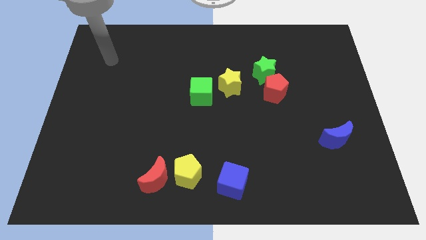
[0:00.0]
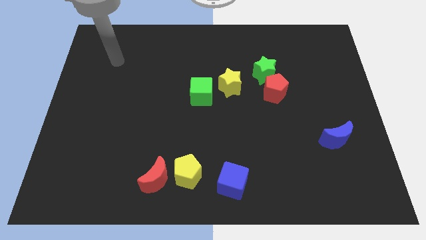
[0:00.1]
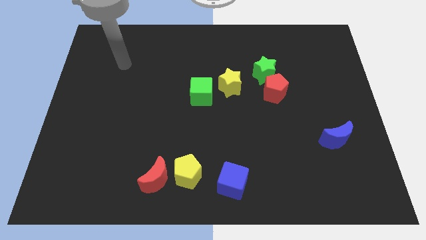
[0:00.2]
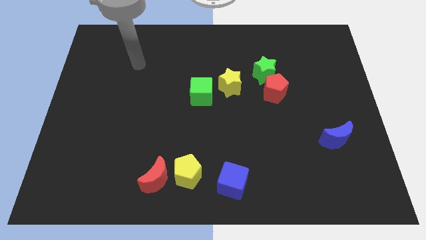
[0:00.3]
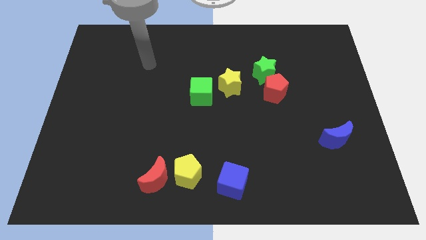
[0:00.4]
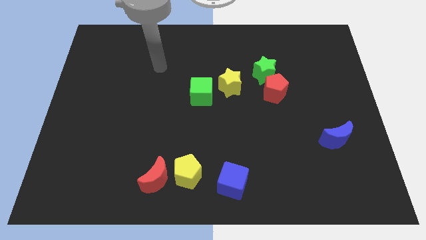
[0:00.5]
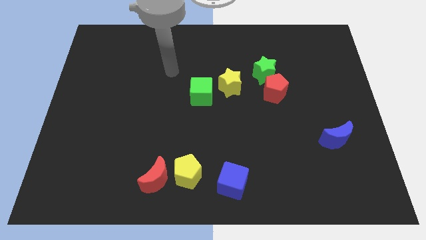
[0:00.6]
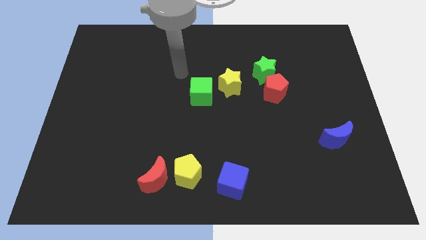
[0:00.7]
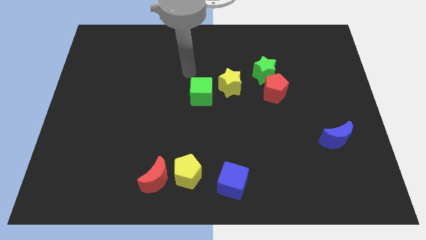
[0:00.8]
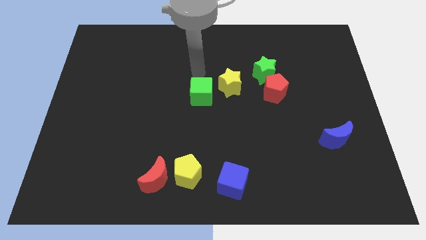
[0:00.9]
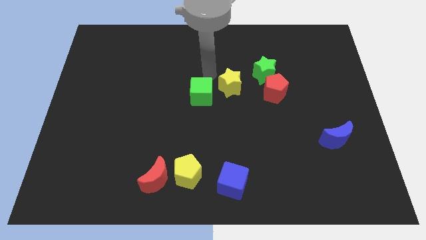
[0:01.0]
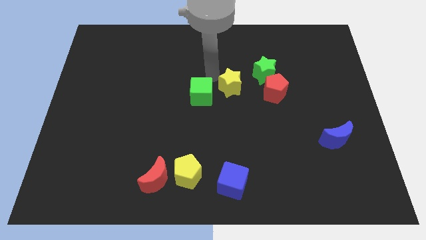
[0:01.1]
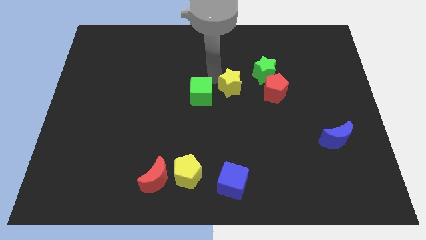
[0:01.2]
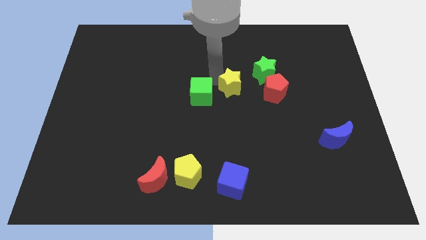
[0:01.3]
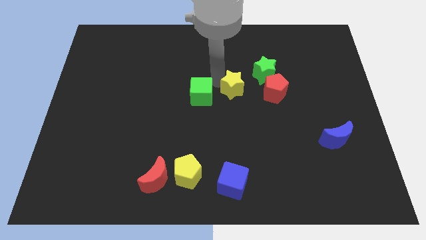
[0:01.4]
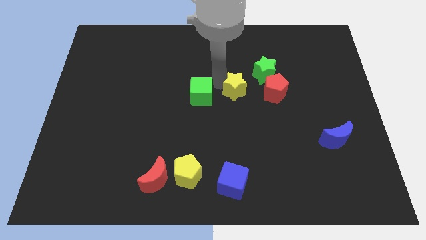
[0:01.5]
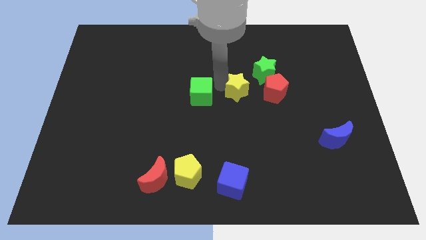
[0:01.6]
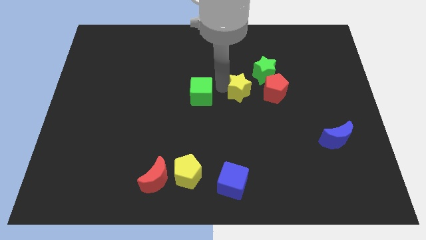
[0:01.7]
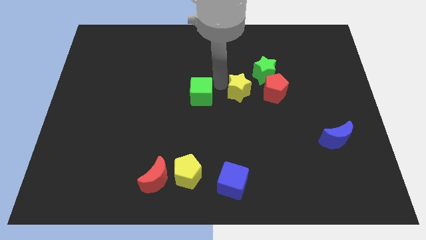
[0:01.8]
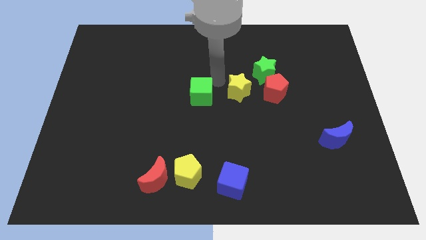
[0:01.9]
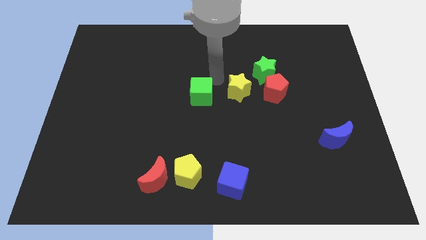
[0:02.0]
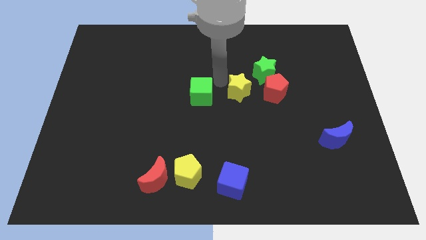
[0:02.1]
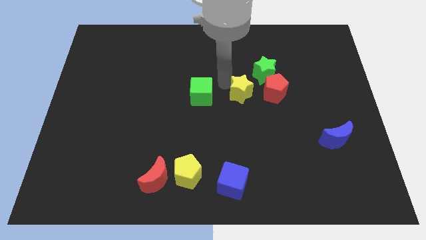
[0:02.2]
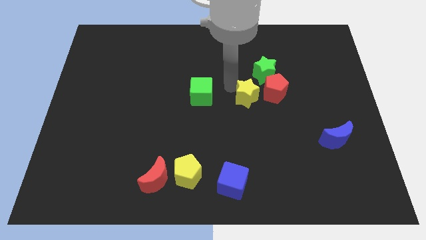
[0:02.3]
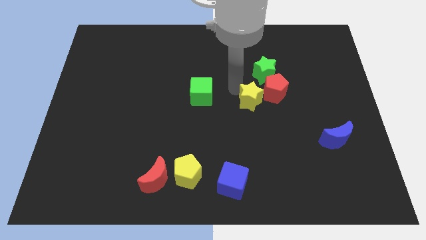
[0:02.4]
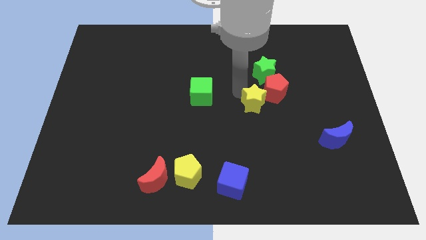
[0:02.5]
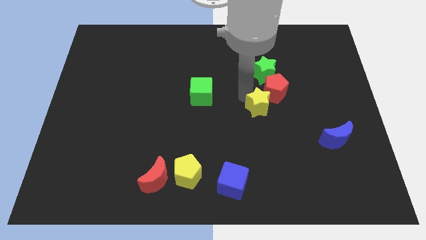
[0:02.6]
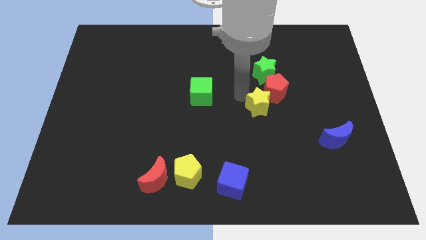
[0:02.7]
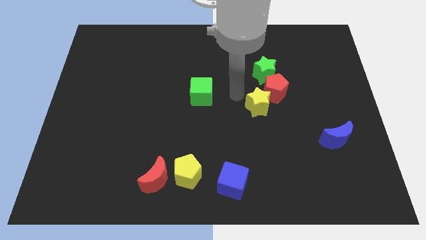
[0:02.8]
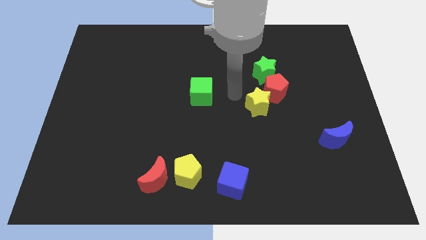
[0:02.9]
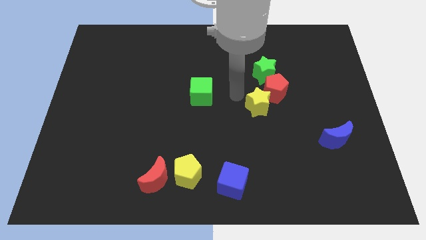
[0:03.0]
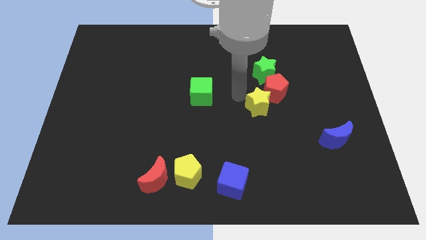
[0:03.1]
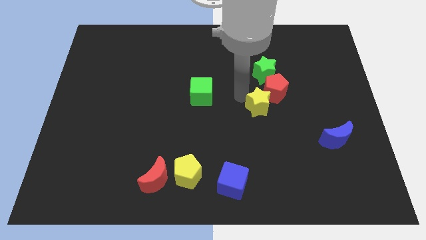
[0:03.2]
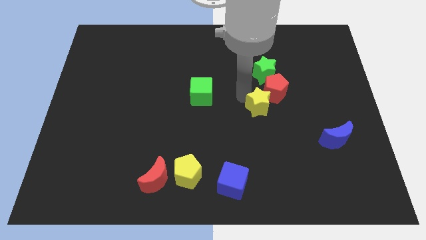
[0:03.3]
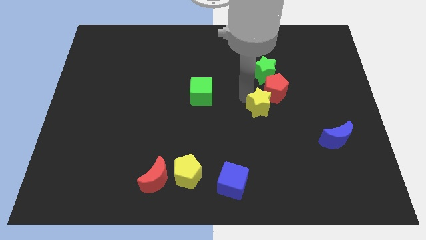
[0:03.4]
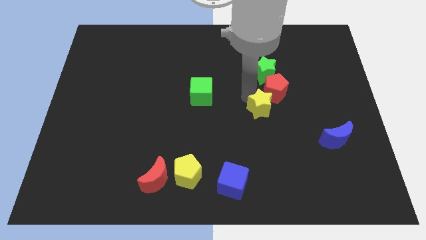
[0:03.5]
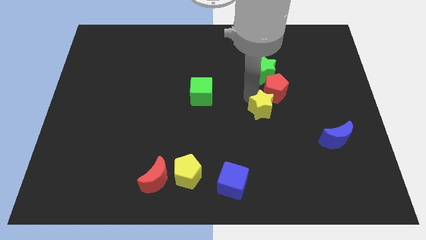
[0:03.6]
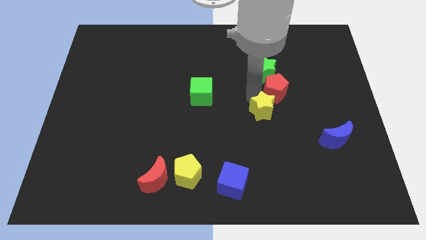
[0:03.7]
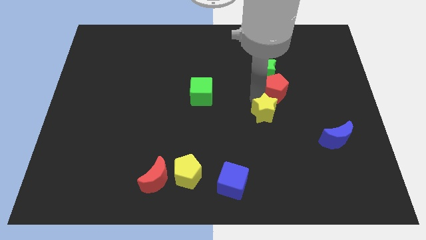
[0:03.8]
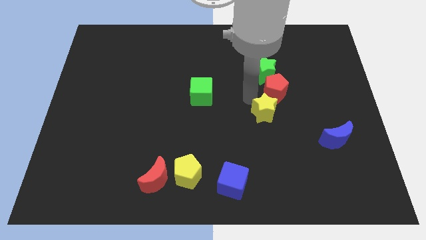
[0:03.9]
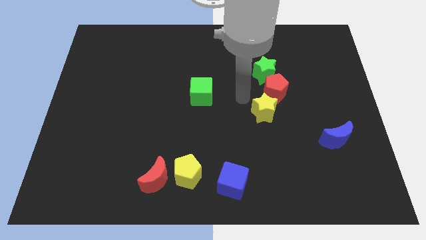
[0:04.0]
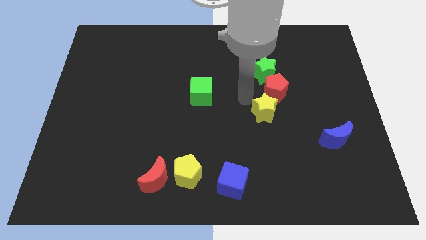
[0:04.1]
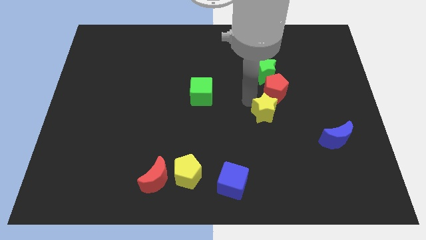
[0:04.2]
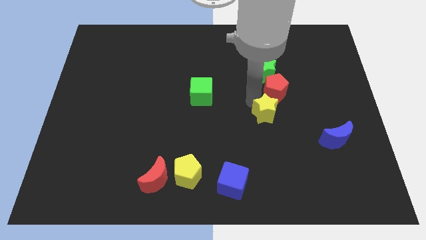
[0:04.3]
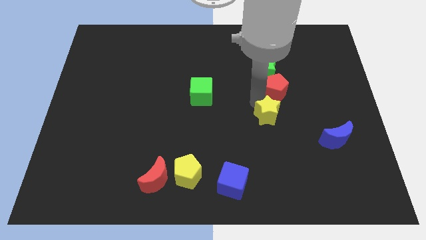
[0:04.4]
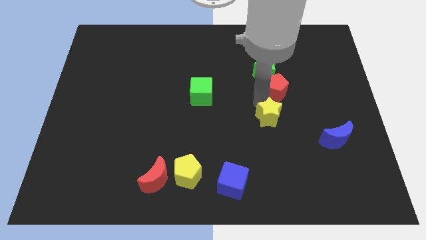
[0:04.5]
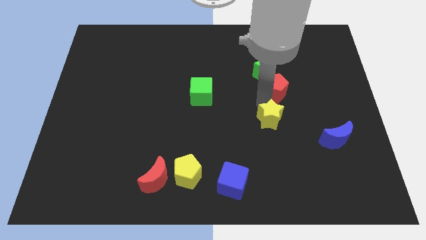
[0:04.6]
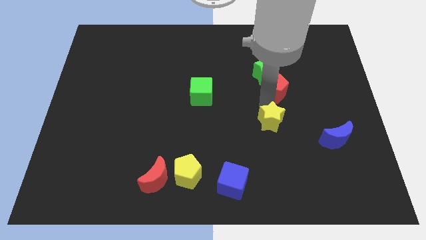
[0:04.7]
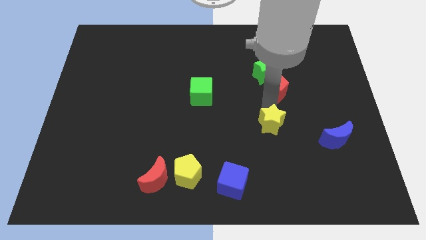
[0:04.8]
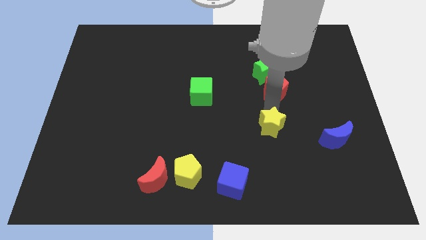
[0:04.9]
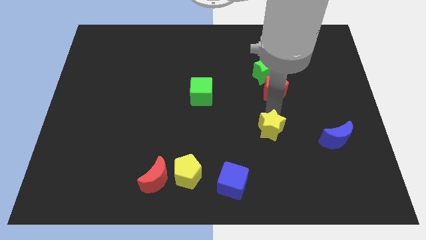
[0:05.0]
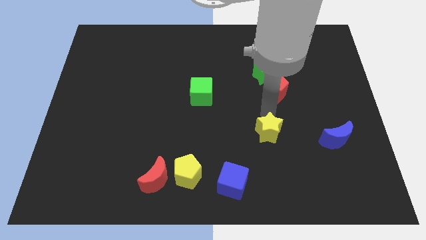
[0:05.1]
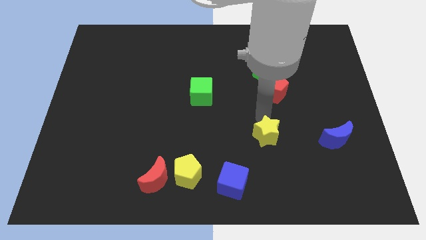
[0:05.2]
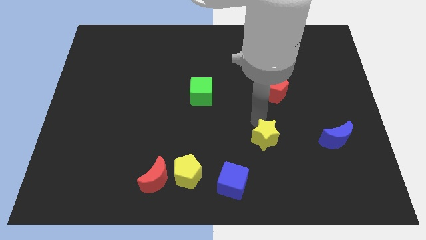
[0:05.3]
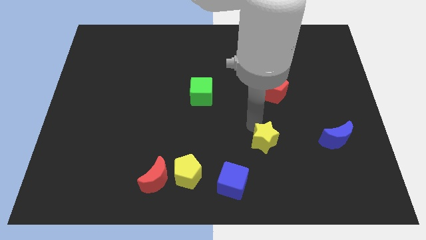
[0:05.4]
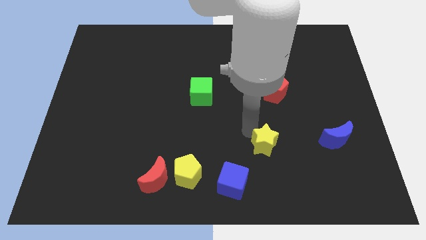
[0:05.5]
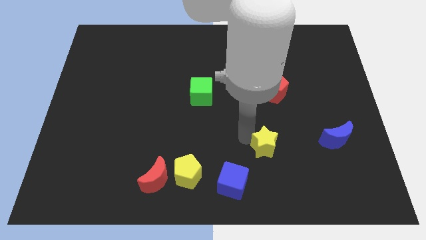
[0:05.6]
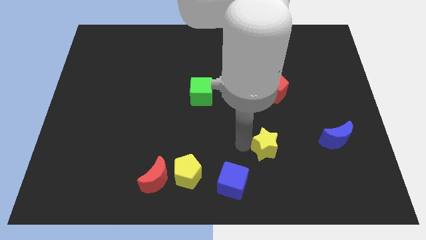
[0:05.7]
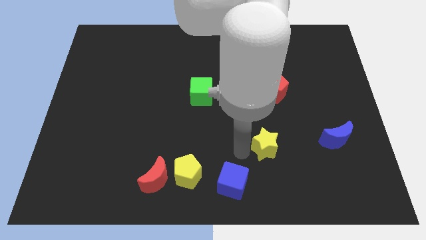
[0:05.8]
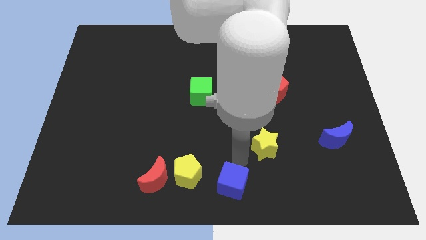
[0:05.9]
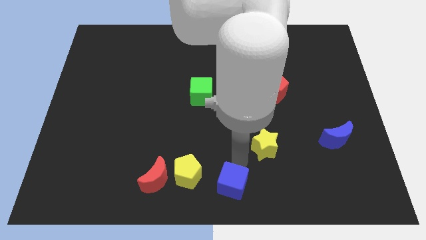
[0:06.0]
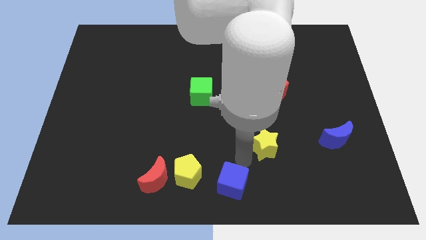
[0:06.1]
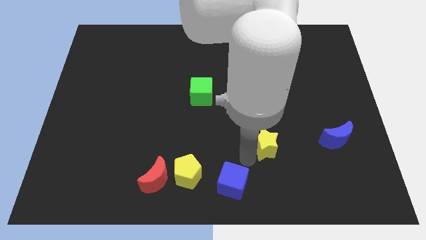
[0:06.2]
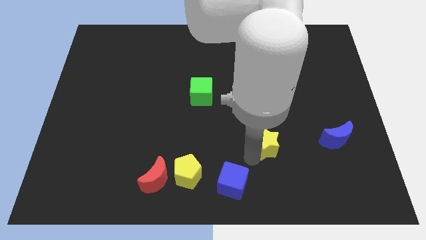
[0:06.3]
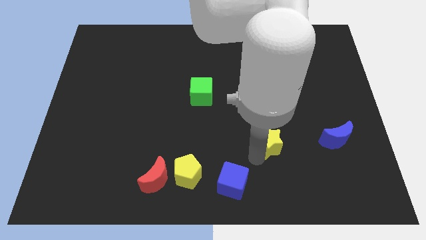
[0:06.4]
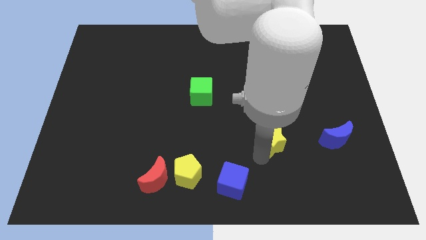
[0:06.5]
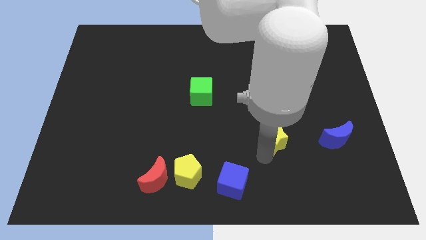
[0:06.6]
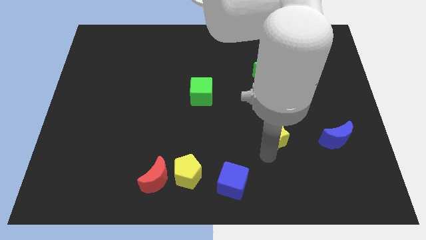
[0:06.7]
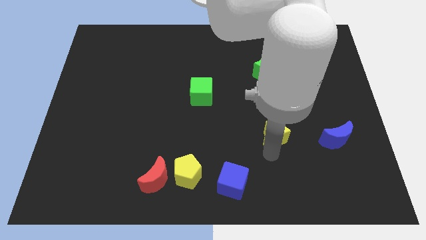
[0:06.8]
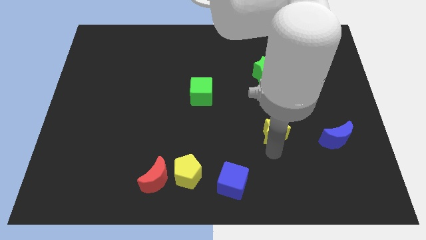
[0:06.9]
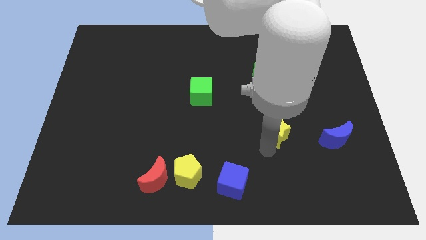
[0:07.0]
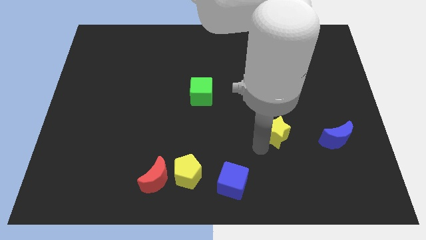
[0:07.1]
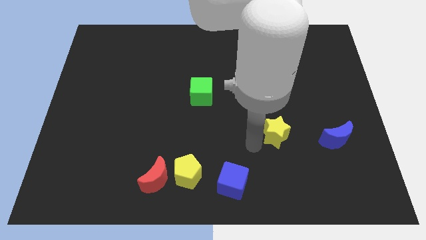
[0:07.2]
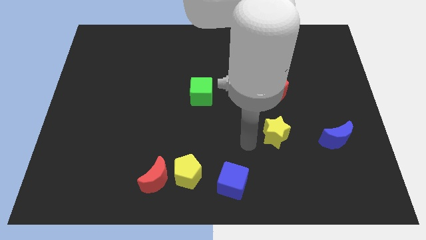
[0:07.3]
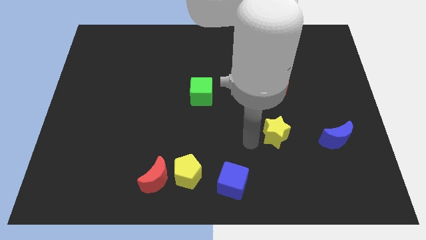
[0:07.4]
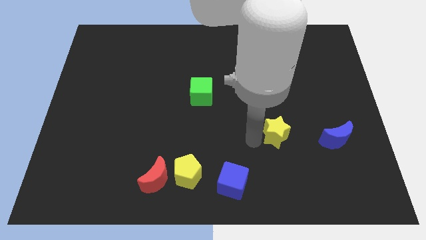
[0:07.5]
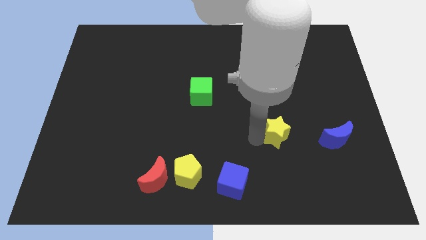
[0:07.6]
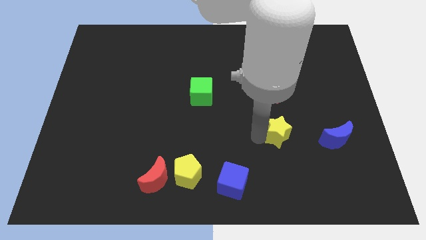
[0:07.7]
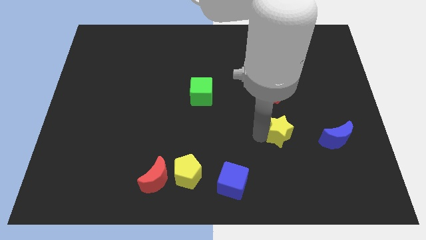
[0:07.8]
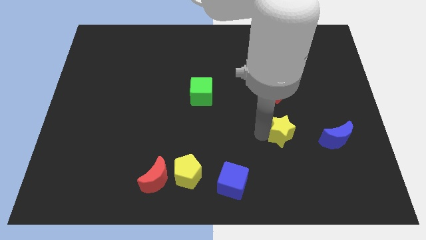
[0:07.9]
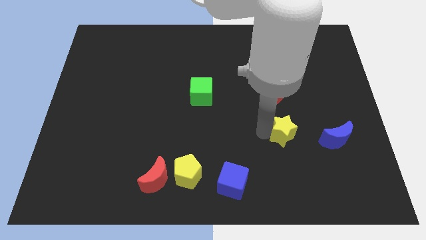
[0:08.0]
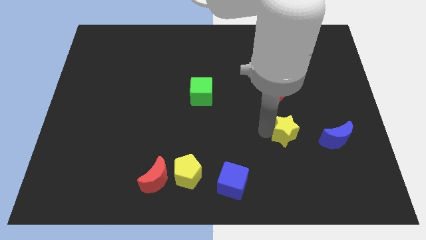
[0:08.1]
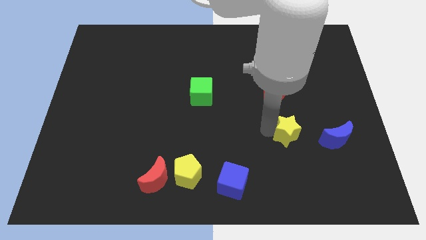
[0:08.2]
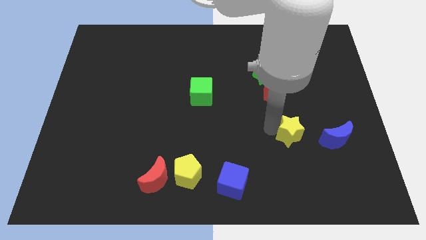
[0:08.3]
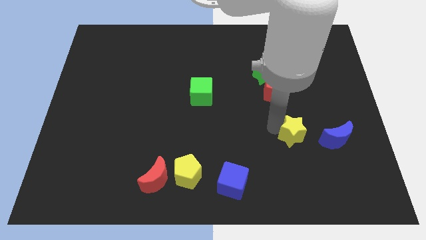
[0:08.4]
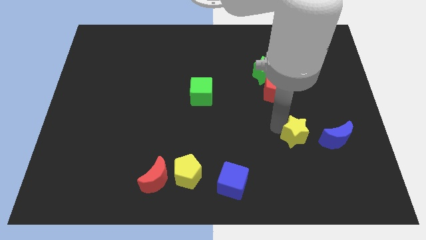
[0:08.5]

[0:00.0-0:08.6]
push the yellow star downwards and right diagonally
